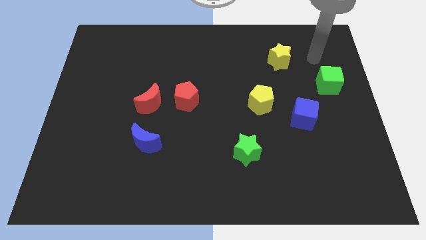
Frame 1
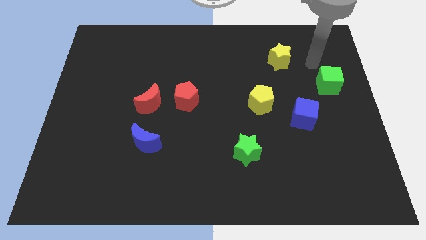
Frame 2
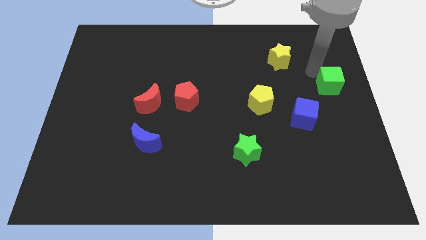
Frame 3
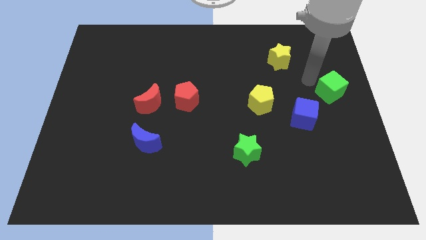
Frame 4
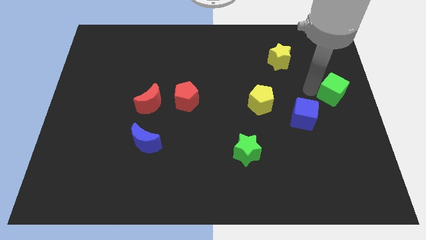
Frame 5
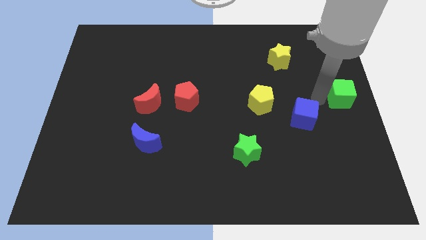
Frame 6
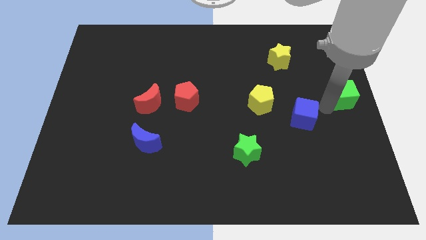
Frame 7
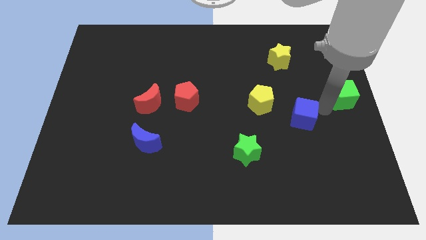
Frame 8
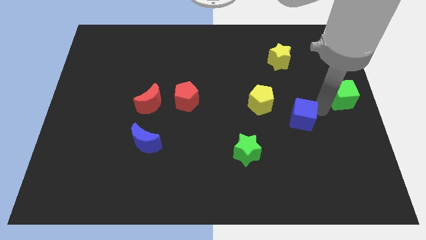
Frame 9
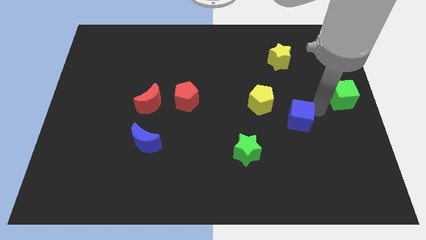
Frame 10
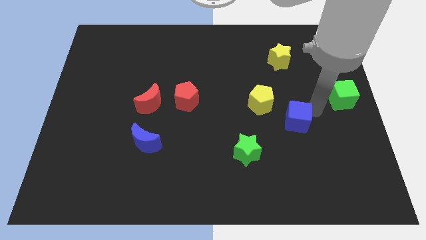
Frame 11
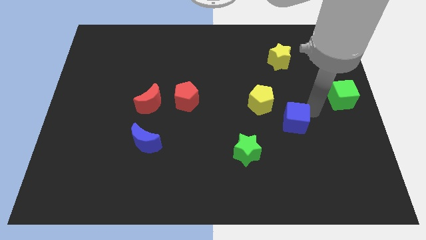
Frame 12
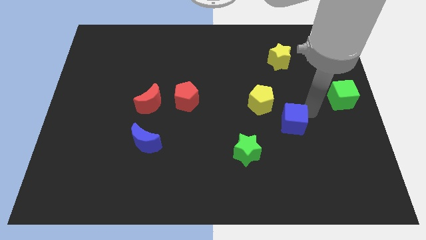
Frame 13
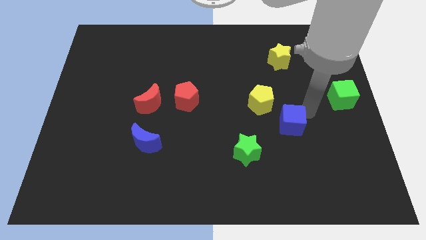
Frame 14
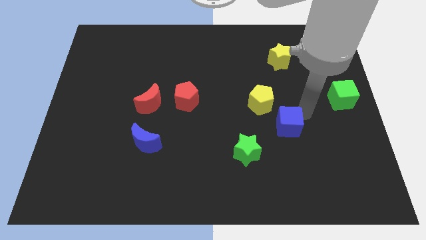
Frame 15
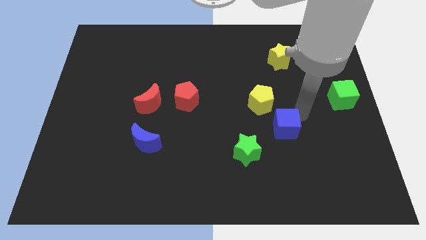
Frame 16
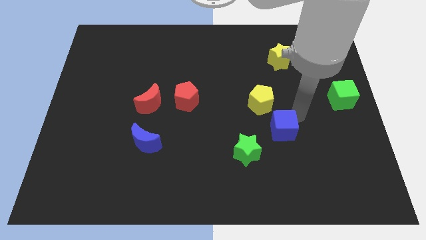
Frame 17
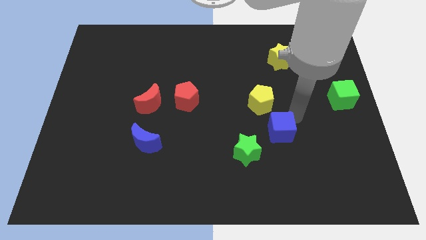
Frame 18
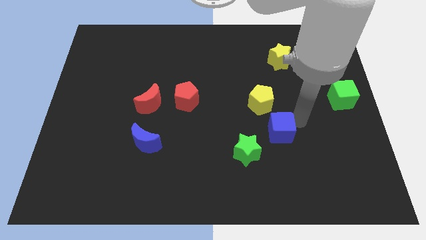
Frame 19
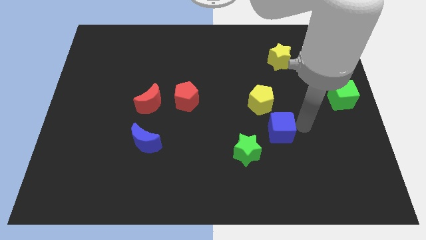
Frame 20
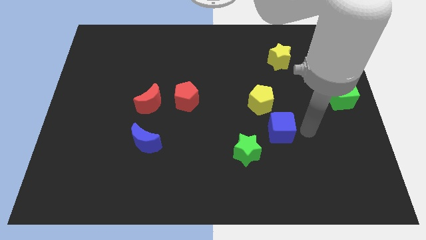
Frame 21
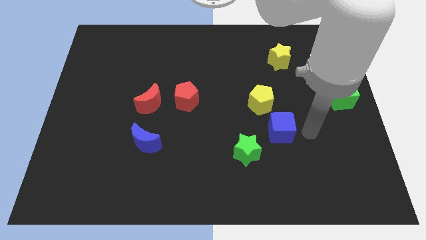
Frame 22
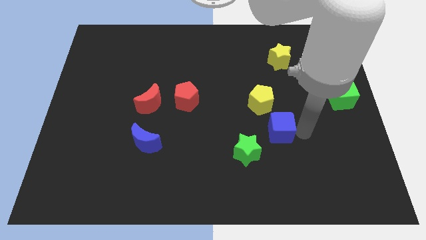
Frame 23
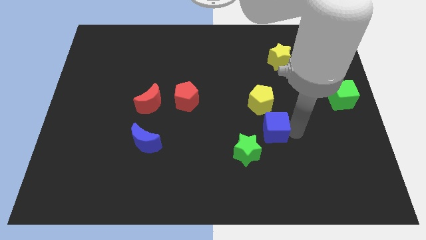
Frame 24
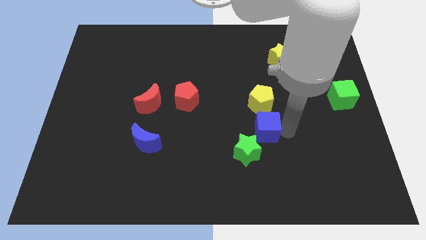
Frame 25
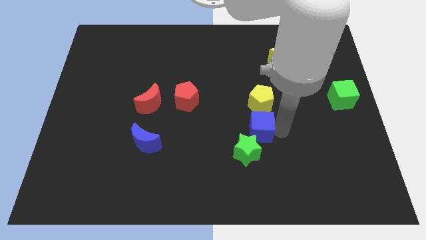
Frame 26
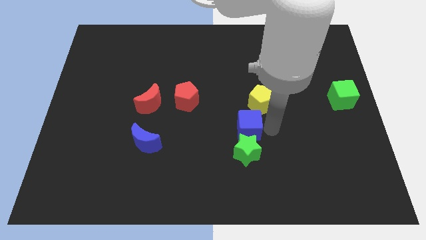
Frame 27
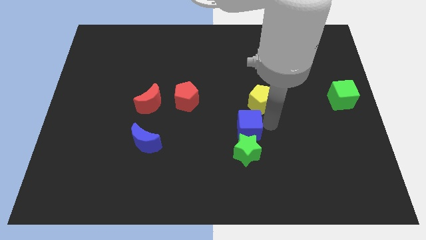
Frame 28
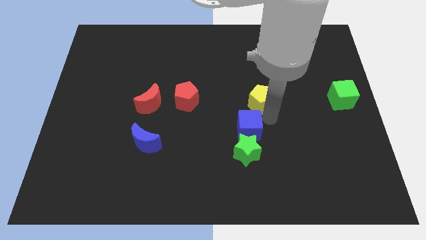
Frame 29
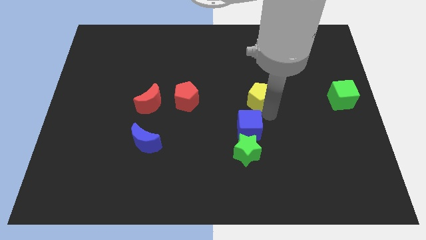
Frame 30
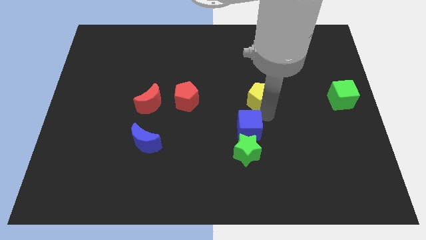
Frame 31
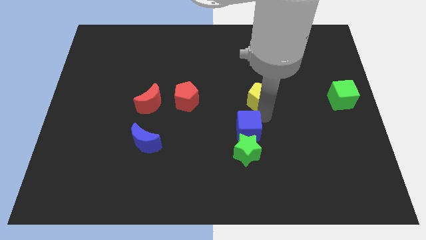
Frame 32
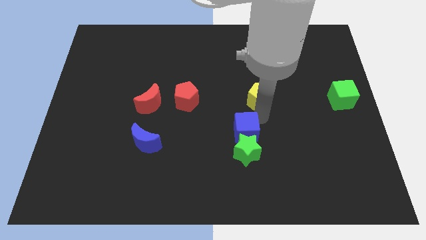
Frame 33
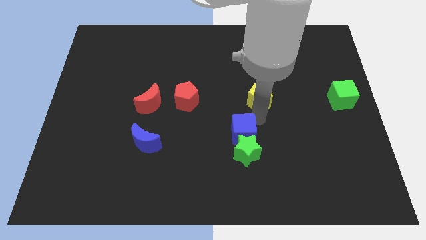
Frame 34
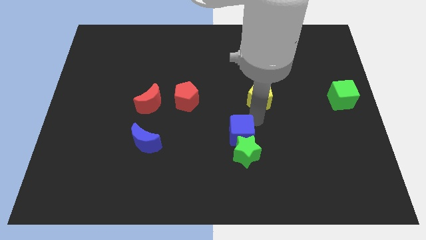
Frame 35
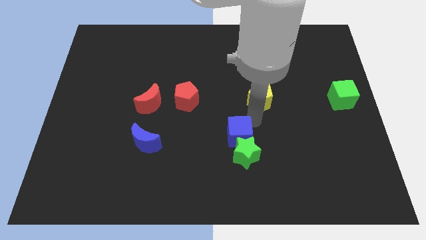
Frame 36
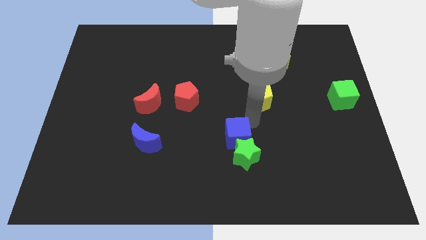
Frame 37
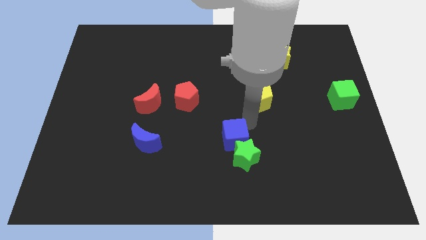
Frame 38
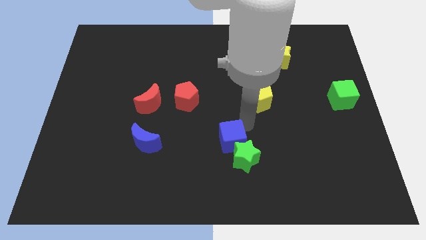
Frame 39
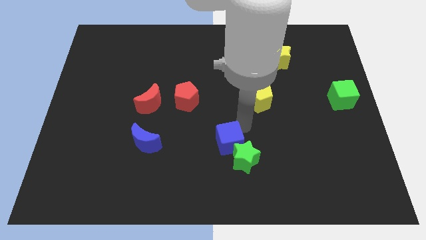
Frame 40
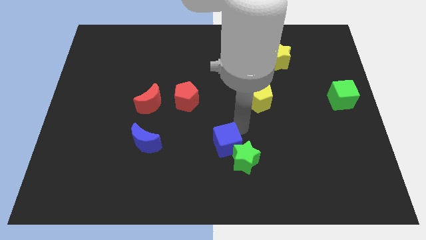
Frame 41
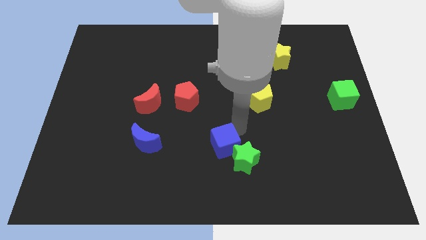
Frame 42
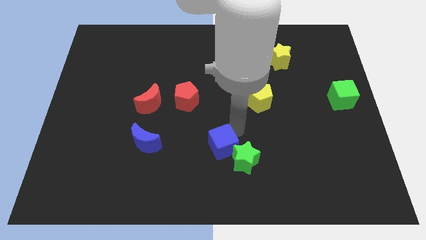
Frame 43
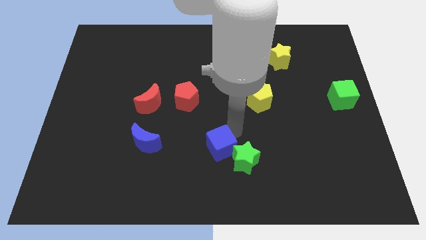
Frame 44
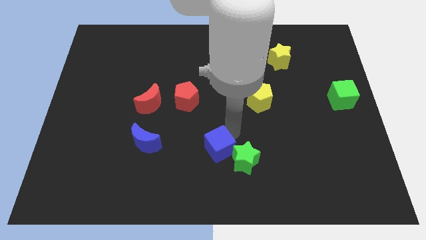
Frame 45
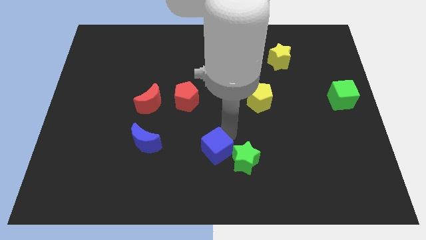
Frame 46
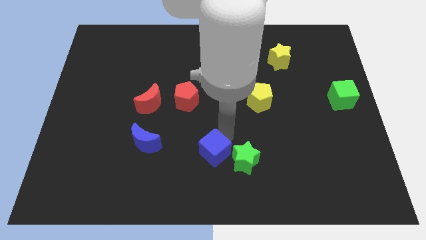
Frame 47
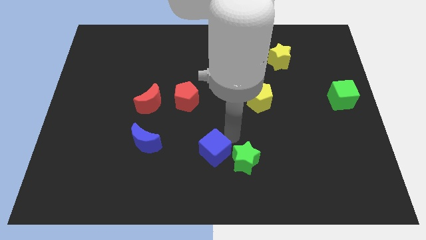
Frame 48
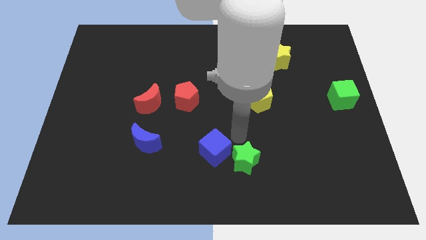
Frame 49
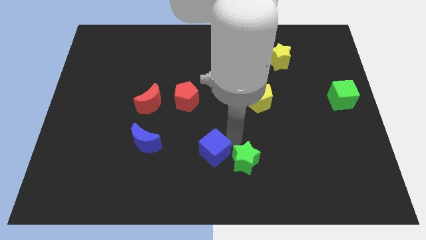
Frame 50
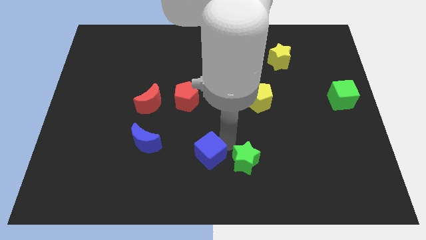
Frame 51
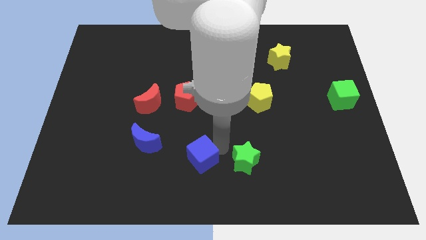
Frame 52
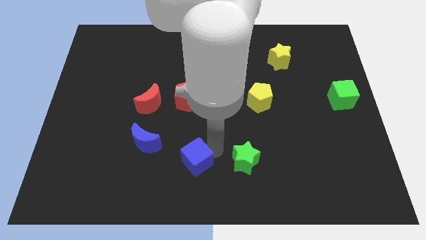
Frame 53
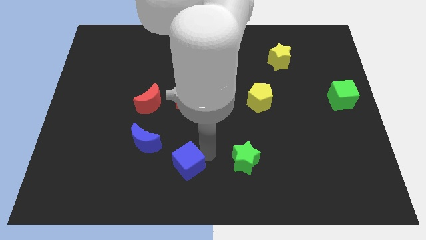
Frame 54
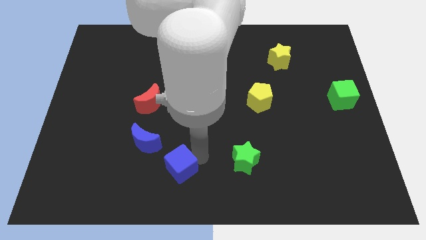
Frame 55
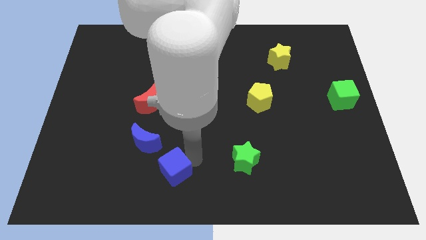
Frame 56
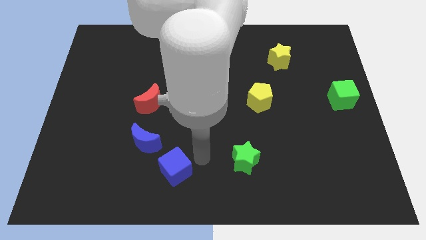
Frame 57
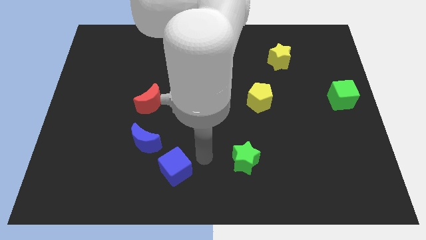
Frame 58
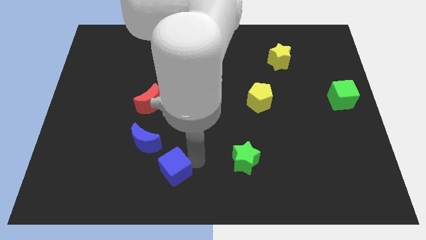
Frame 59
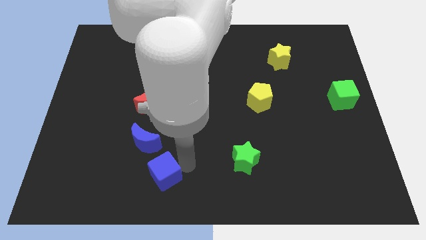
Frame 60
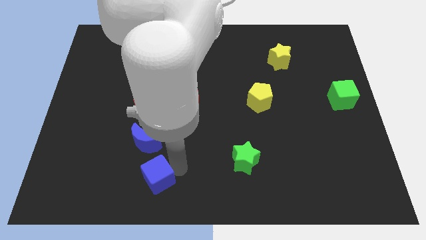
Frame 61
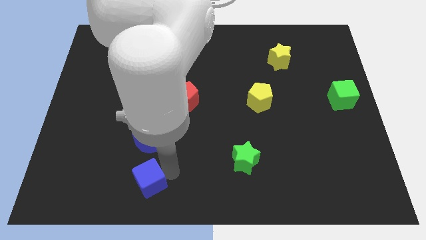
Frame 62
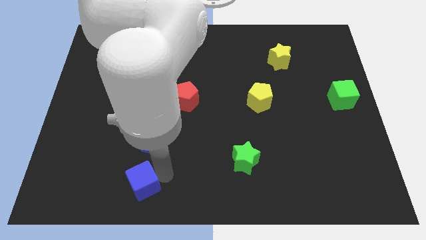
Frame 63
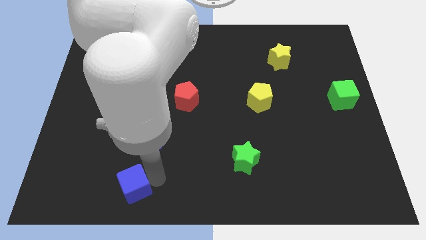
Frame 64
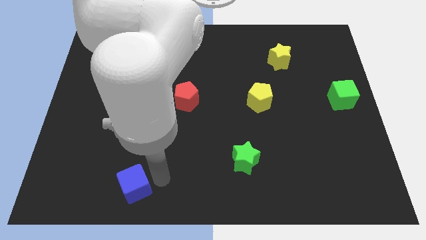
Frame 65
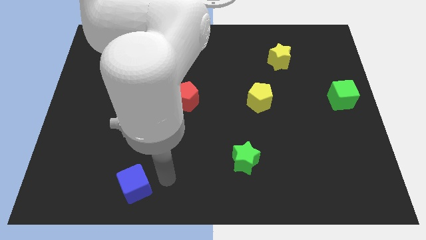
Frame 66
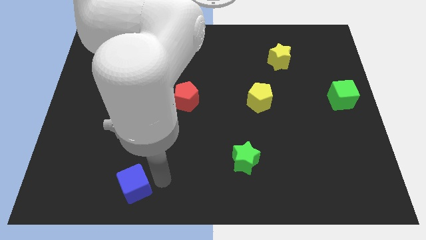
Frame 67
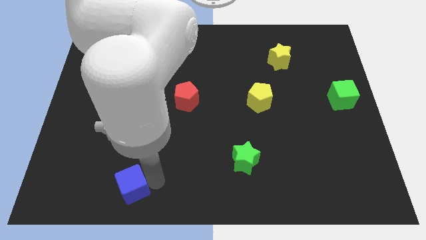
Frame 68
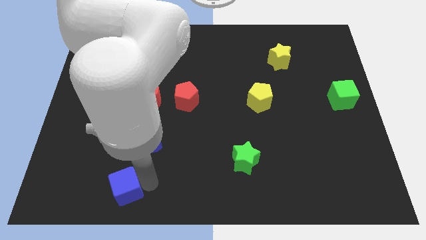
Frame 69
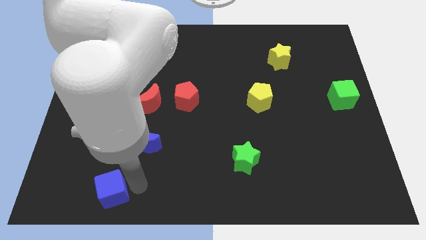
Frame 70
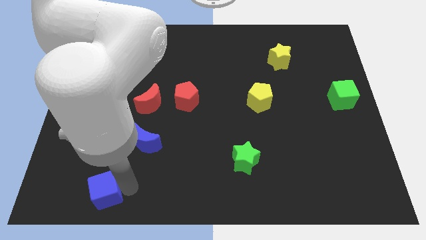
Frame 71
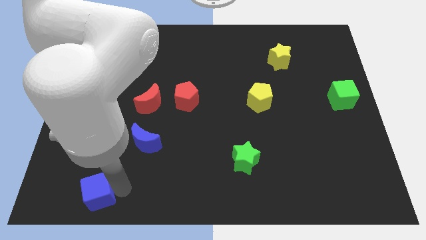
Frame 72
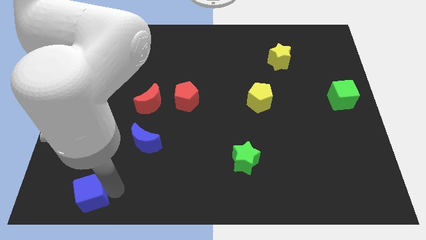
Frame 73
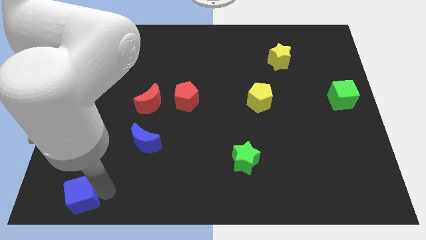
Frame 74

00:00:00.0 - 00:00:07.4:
slide the blue cube to the bottom left
